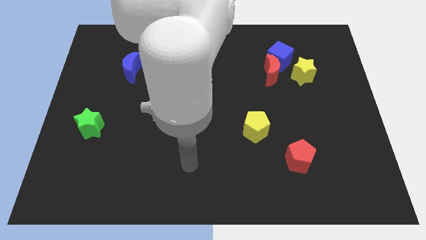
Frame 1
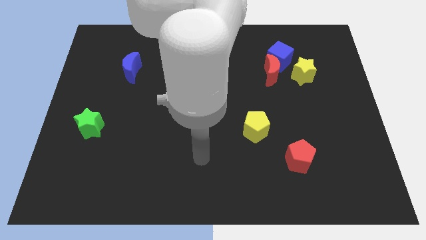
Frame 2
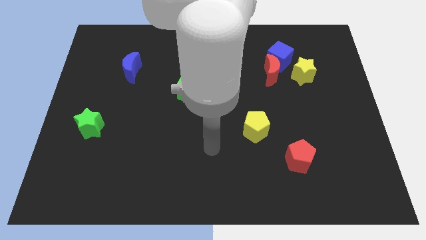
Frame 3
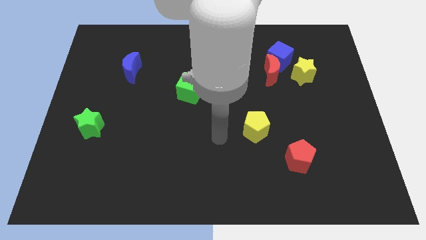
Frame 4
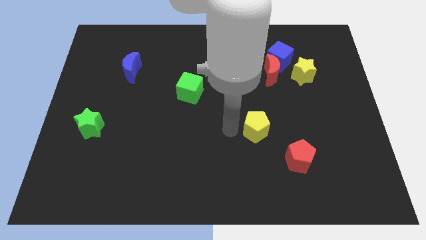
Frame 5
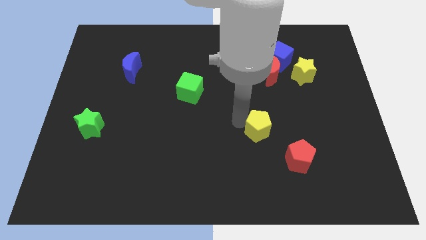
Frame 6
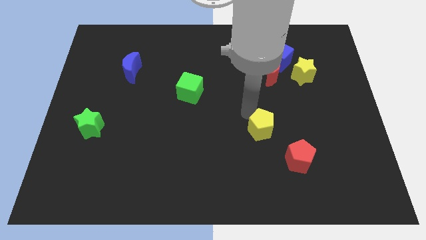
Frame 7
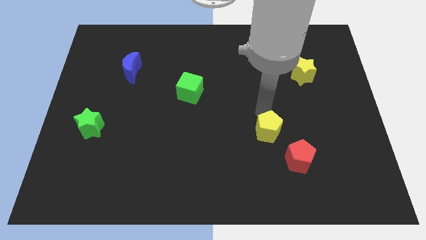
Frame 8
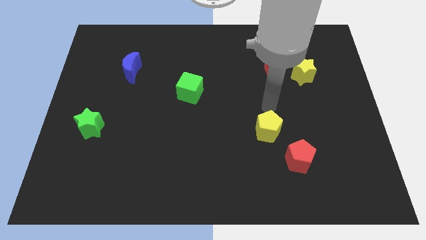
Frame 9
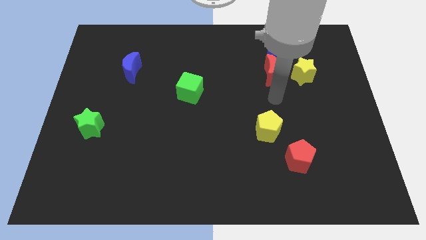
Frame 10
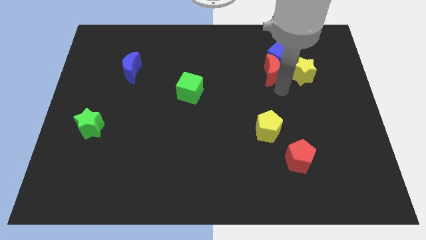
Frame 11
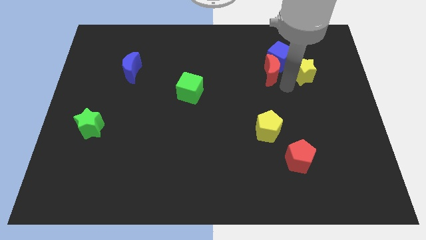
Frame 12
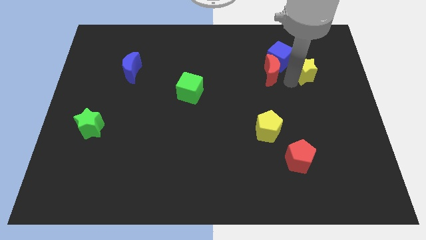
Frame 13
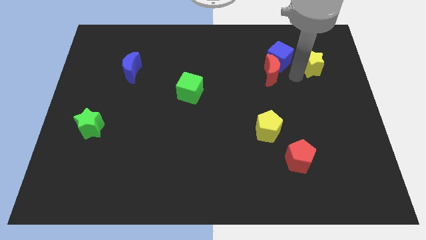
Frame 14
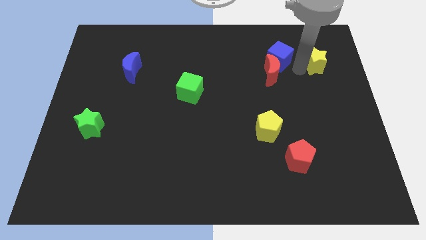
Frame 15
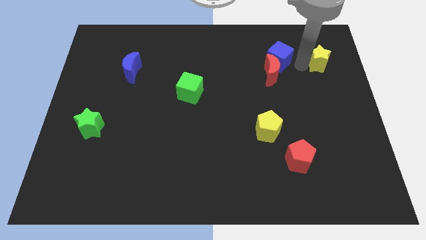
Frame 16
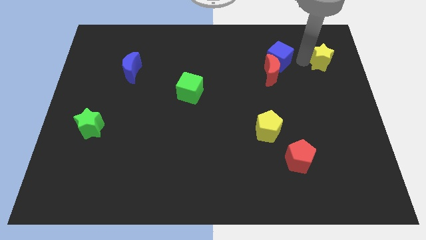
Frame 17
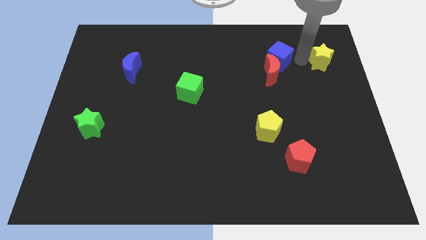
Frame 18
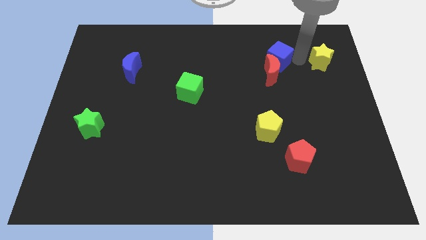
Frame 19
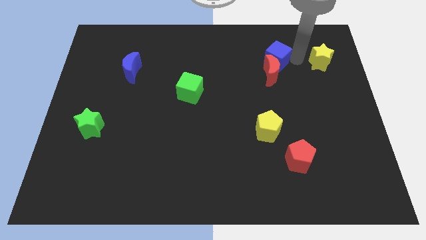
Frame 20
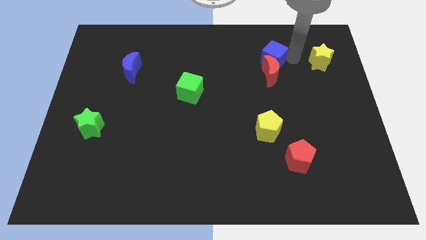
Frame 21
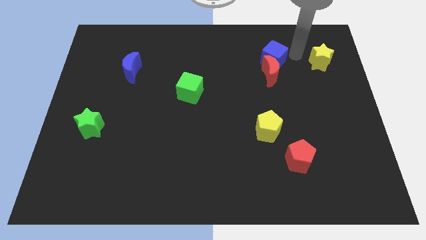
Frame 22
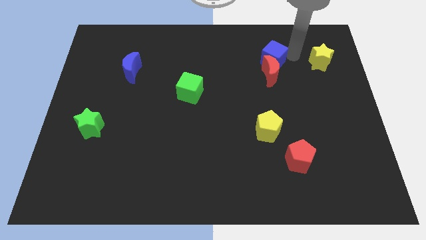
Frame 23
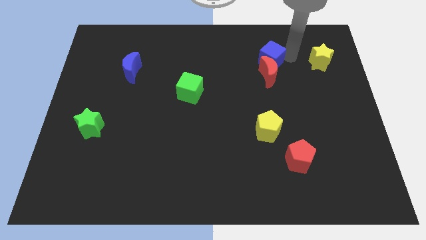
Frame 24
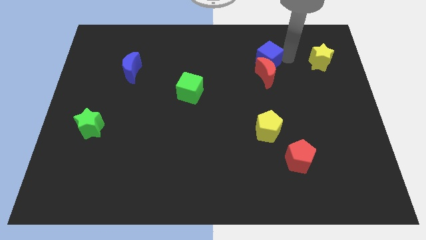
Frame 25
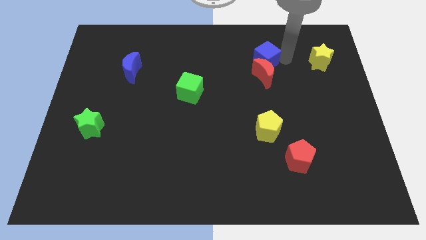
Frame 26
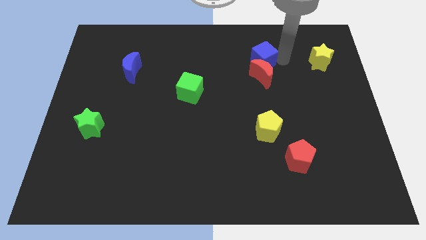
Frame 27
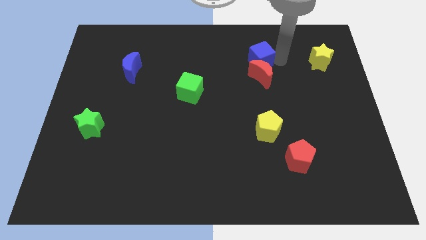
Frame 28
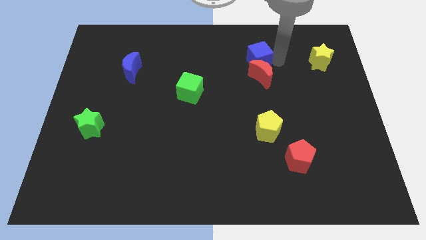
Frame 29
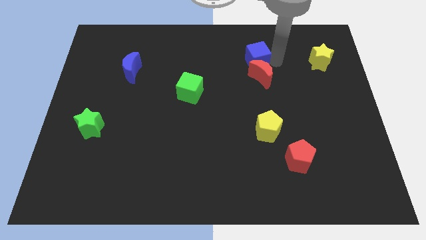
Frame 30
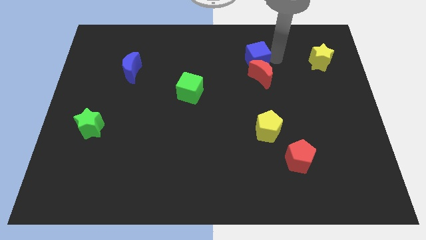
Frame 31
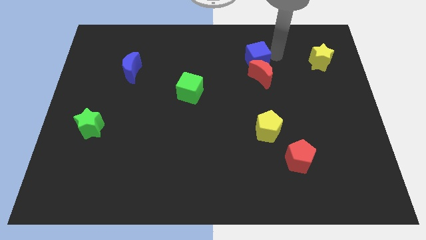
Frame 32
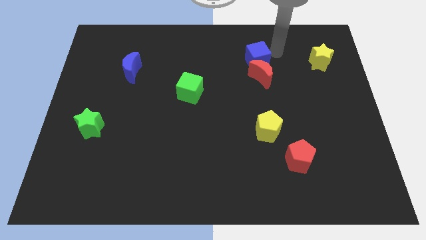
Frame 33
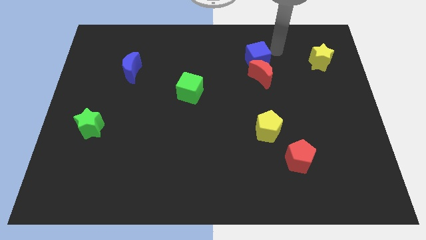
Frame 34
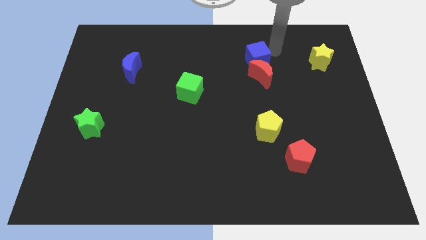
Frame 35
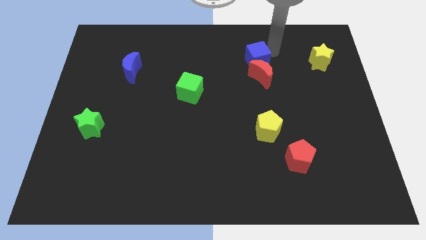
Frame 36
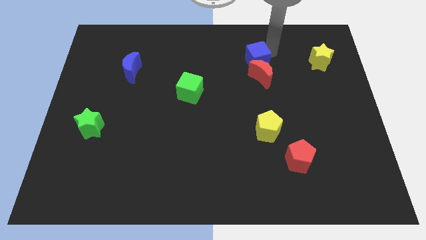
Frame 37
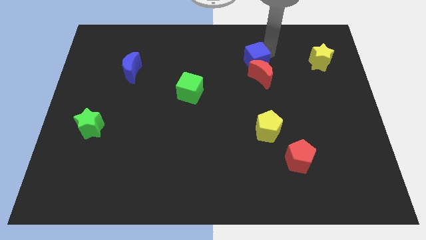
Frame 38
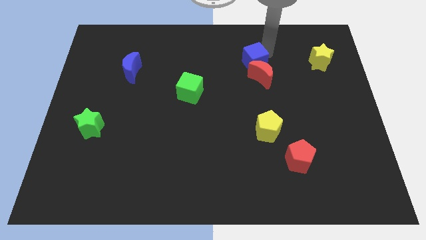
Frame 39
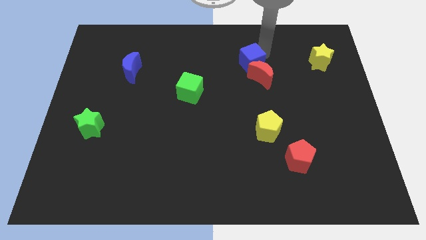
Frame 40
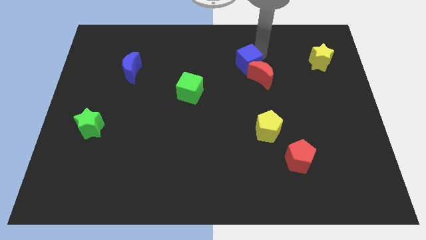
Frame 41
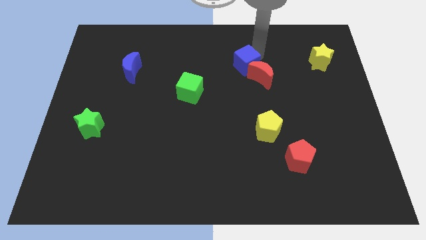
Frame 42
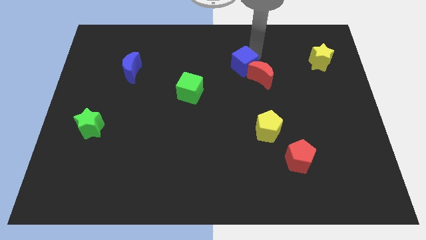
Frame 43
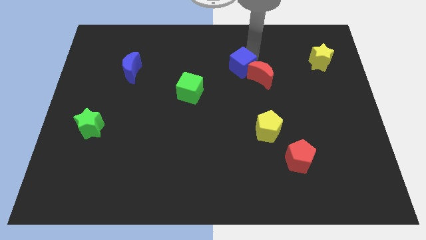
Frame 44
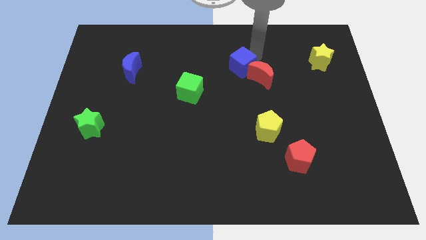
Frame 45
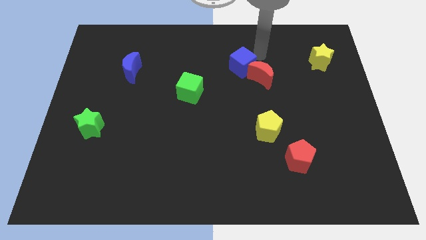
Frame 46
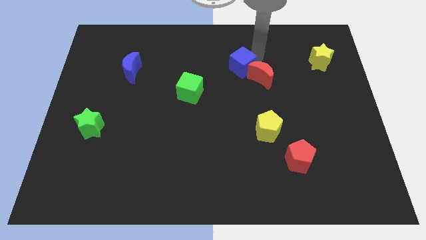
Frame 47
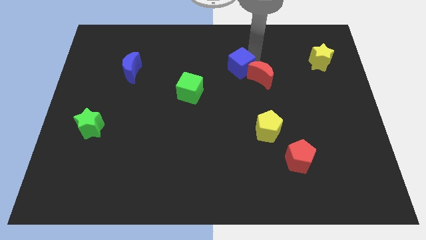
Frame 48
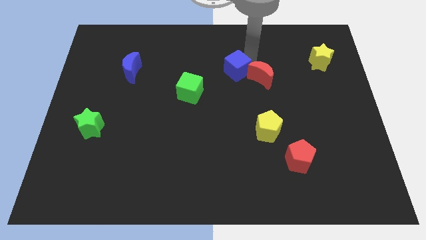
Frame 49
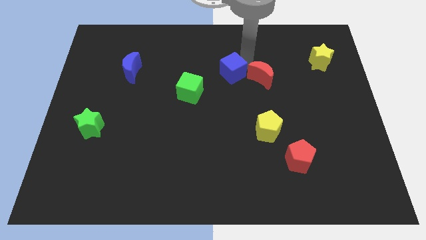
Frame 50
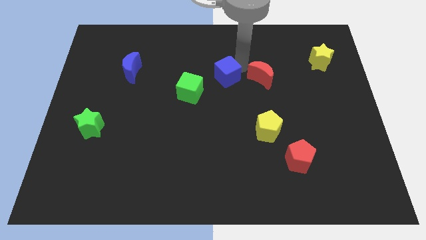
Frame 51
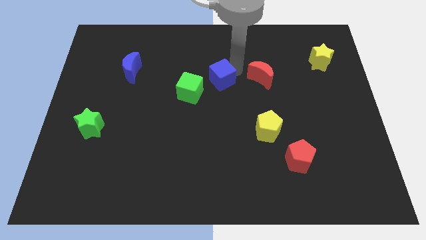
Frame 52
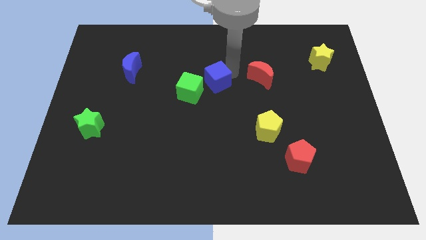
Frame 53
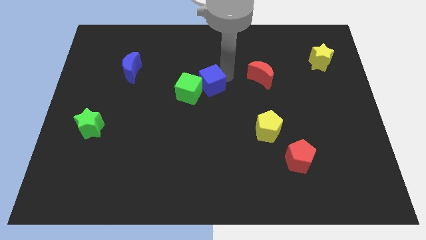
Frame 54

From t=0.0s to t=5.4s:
put the blue cube close to the green cube

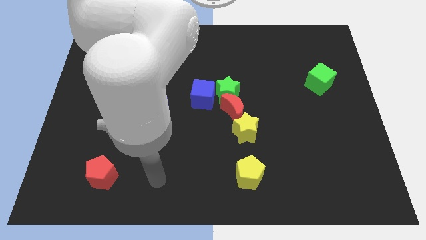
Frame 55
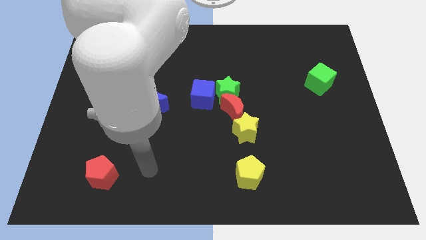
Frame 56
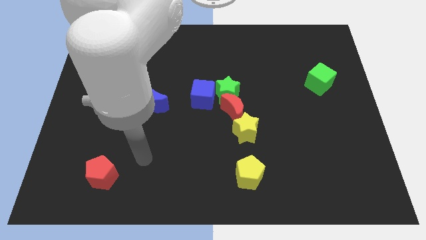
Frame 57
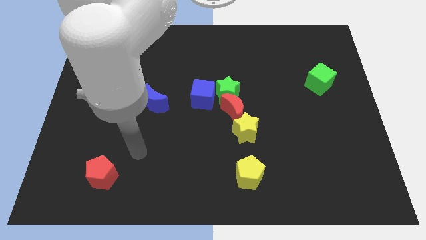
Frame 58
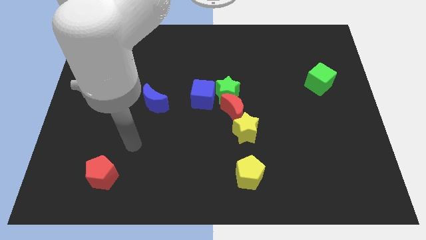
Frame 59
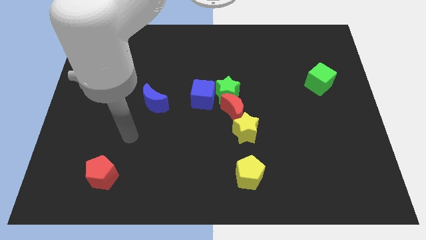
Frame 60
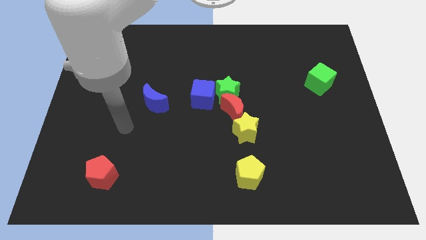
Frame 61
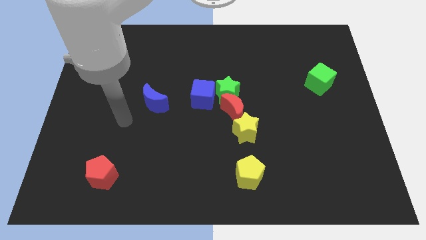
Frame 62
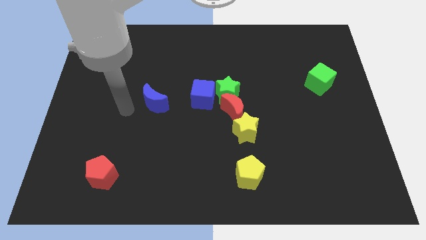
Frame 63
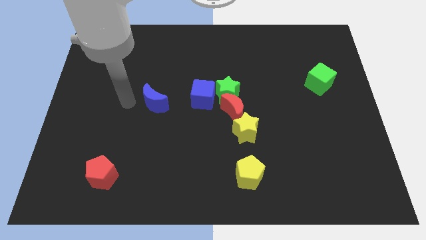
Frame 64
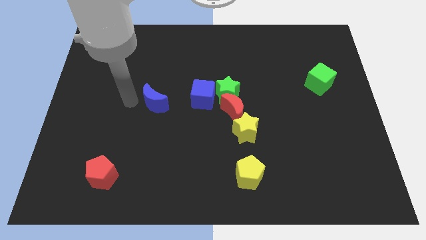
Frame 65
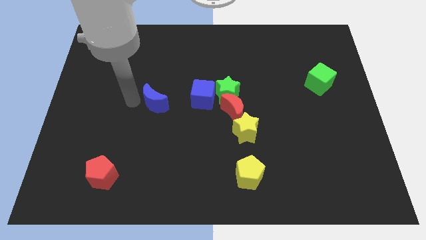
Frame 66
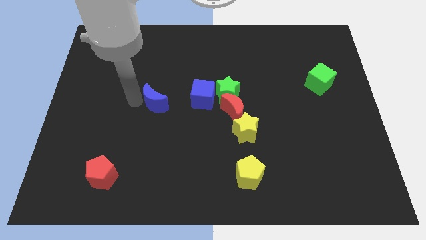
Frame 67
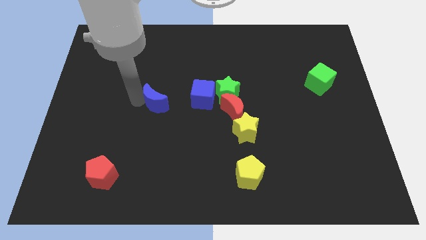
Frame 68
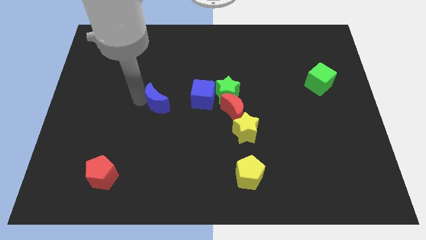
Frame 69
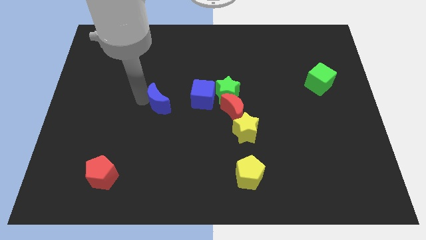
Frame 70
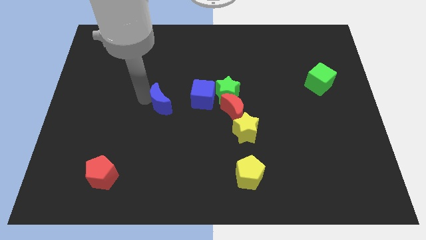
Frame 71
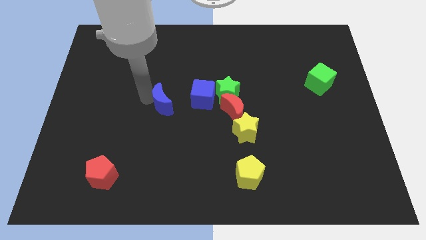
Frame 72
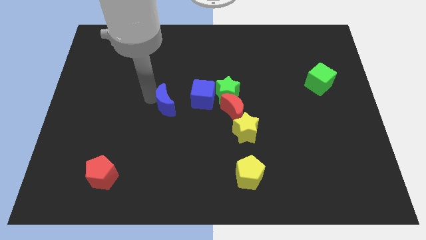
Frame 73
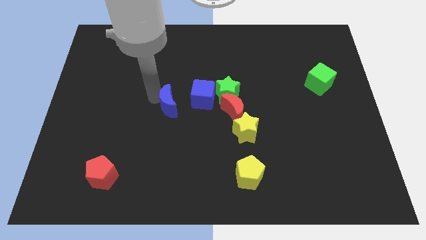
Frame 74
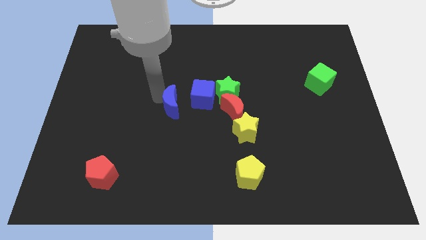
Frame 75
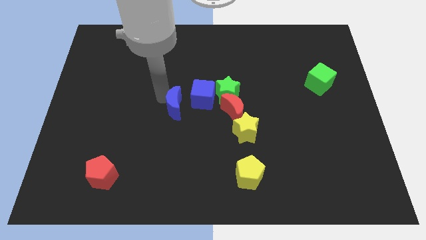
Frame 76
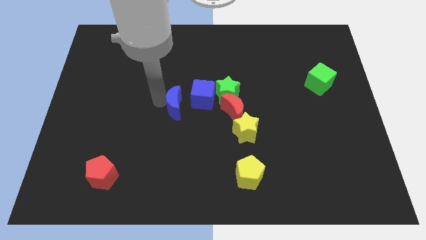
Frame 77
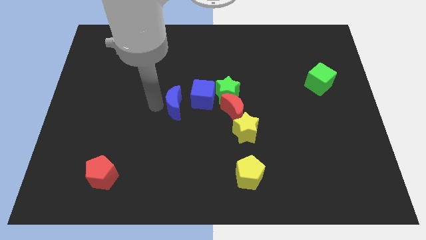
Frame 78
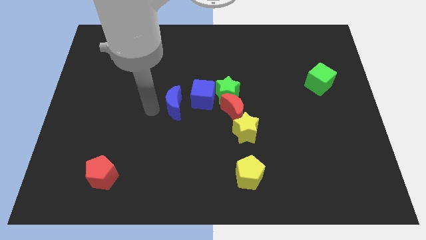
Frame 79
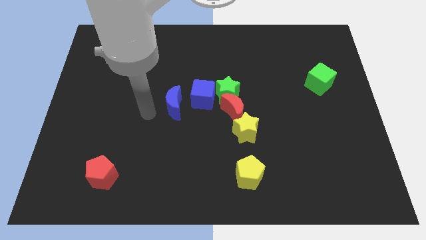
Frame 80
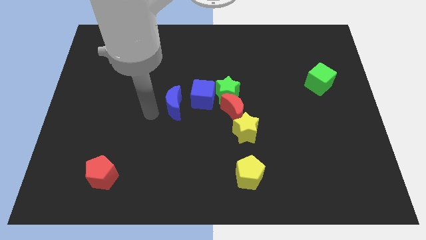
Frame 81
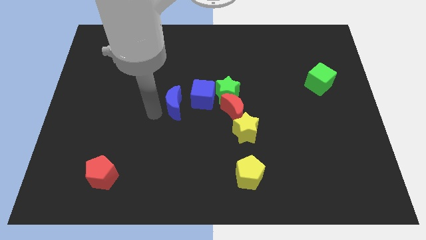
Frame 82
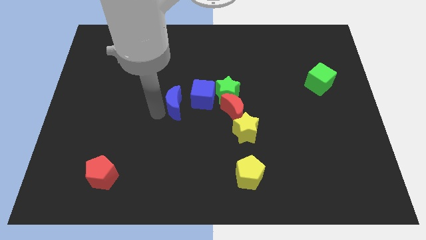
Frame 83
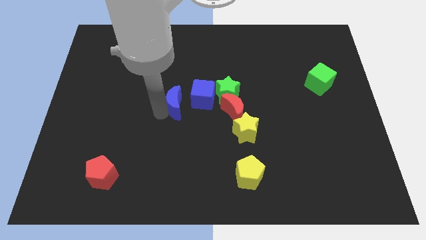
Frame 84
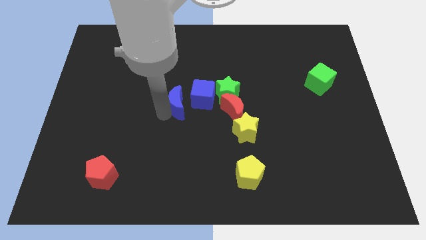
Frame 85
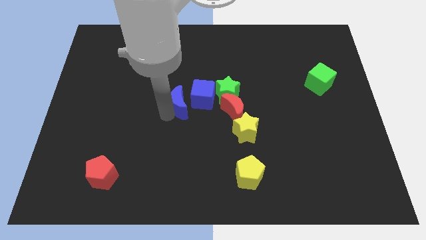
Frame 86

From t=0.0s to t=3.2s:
push the blue moon next to the blue cube
